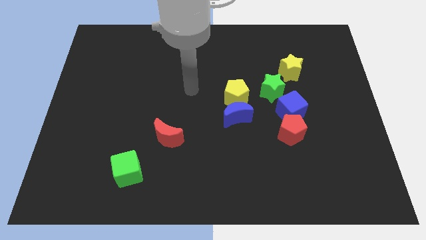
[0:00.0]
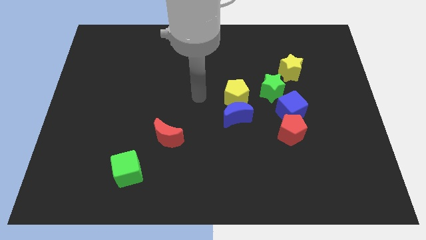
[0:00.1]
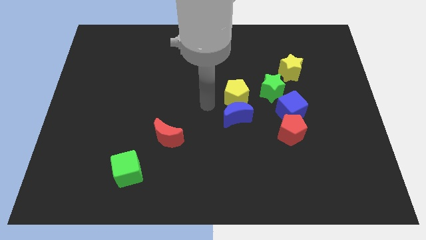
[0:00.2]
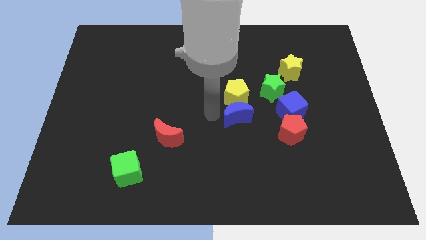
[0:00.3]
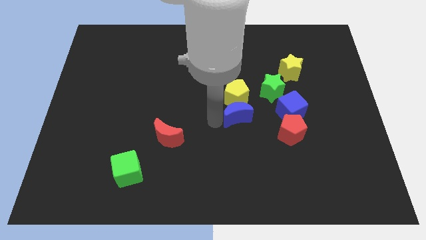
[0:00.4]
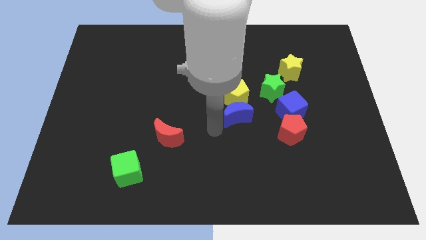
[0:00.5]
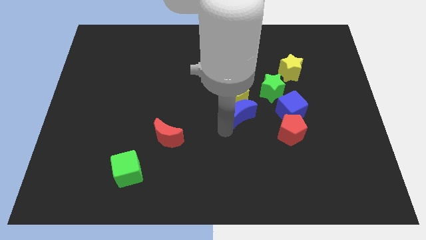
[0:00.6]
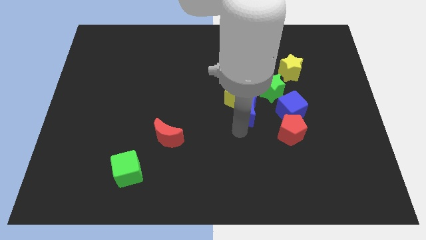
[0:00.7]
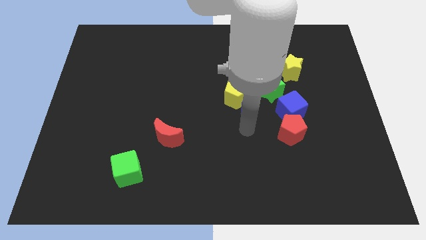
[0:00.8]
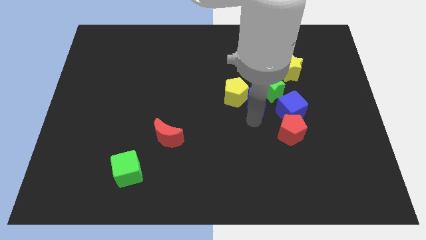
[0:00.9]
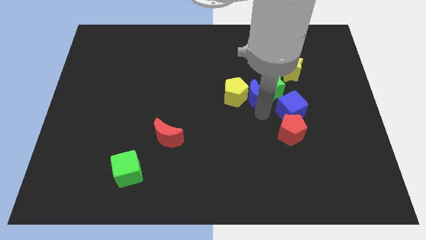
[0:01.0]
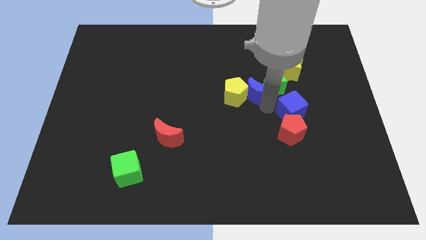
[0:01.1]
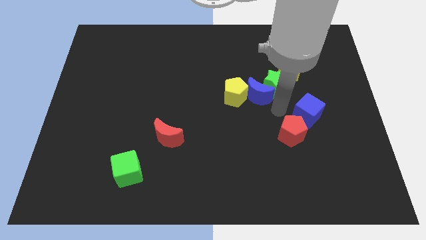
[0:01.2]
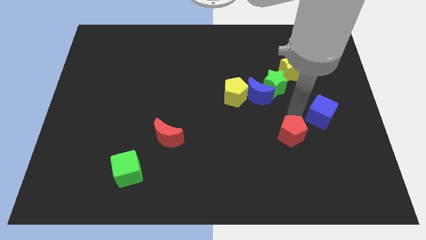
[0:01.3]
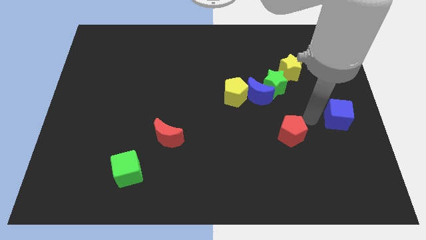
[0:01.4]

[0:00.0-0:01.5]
separate the red pentagon from the blue cube

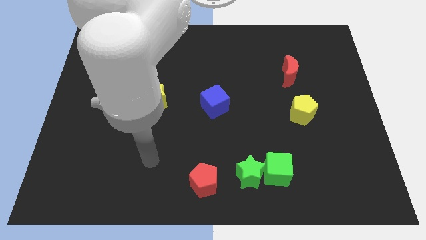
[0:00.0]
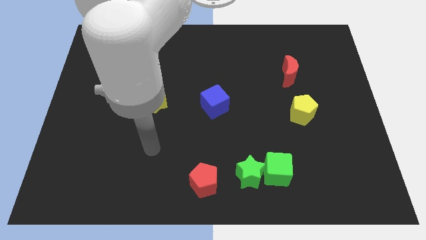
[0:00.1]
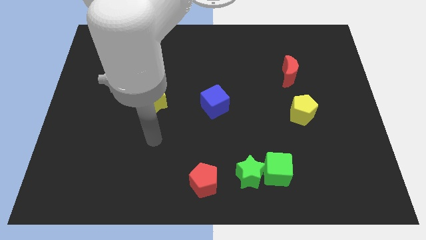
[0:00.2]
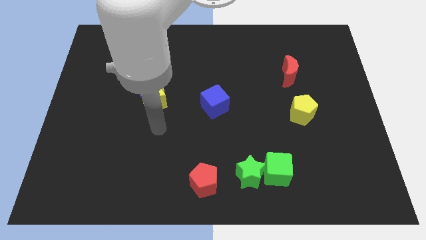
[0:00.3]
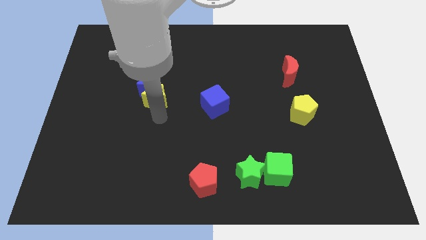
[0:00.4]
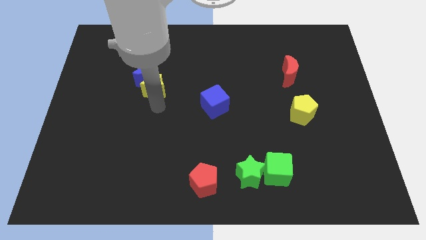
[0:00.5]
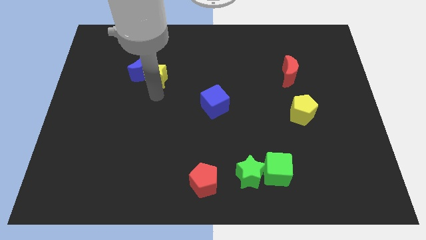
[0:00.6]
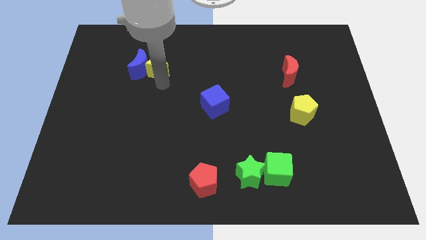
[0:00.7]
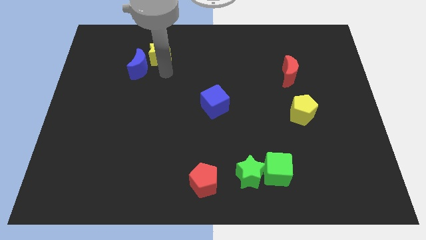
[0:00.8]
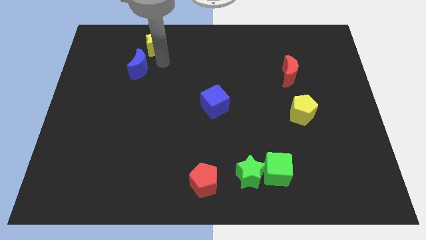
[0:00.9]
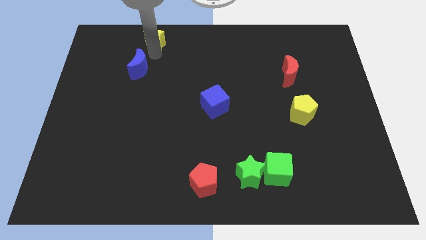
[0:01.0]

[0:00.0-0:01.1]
move the blue moon away from the yellow star

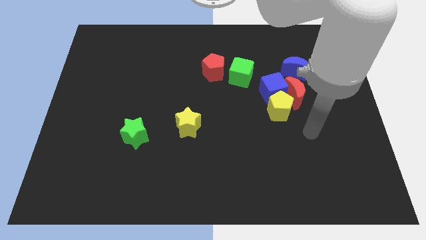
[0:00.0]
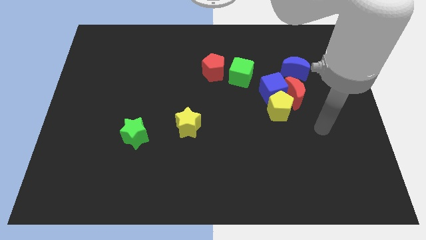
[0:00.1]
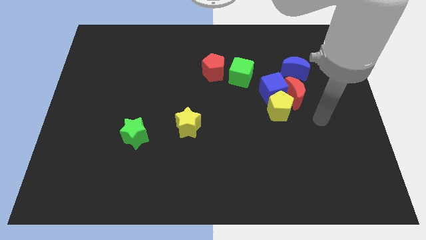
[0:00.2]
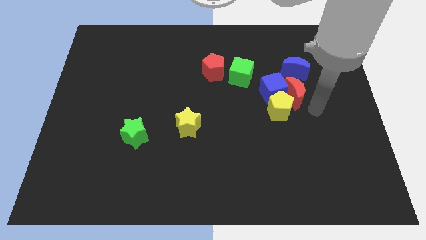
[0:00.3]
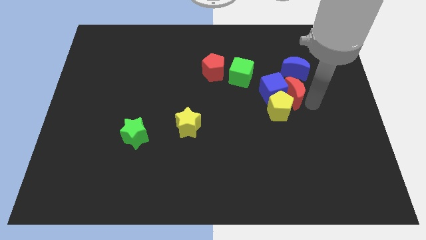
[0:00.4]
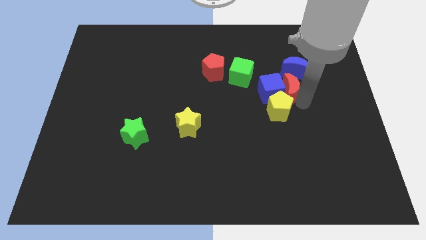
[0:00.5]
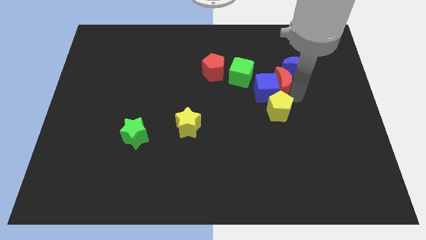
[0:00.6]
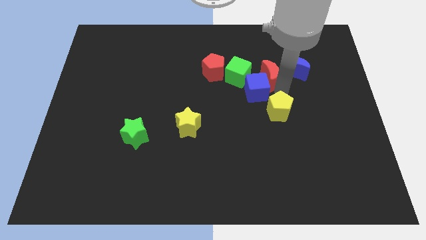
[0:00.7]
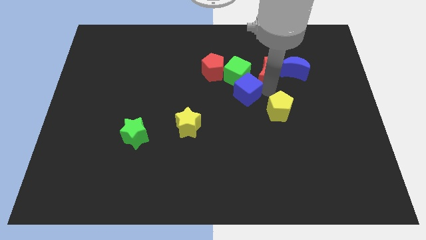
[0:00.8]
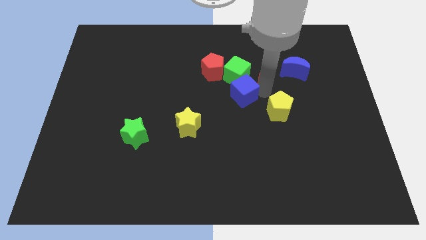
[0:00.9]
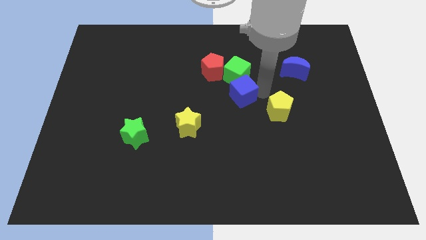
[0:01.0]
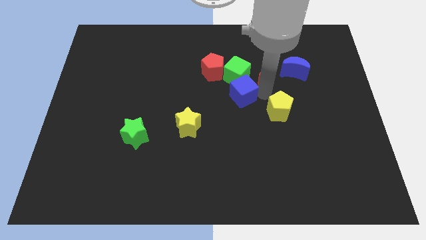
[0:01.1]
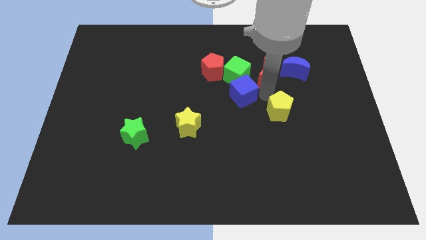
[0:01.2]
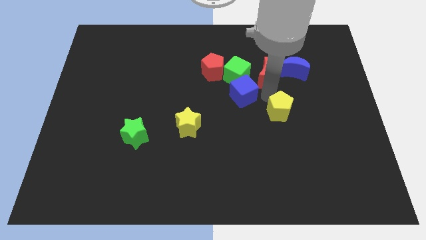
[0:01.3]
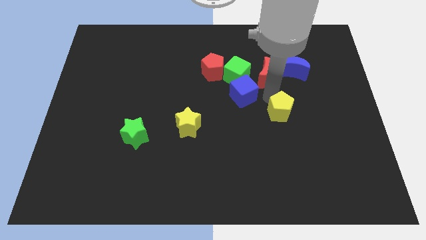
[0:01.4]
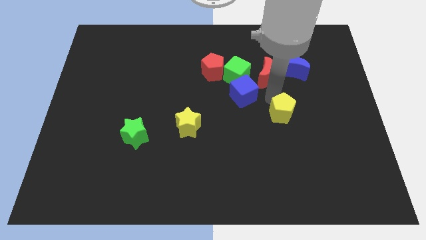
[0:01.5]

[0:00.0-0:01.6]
separate the yellow pentagon from the blue cube and red moon

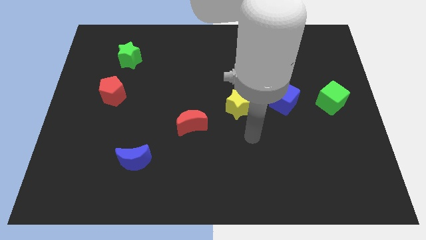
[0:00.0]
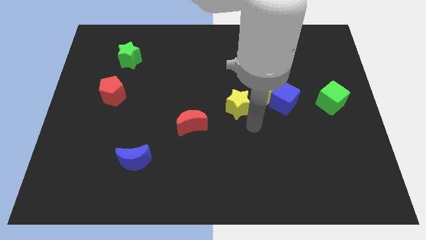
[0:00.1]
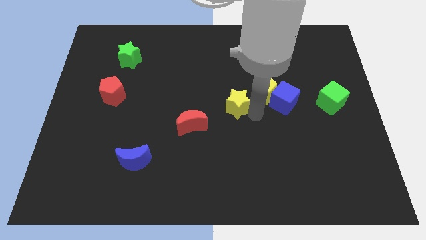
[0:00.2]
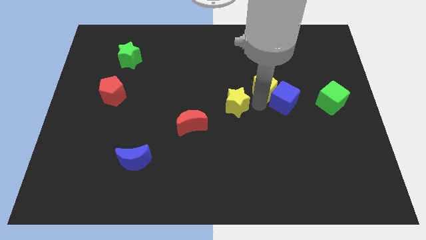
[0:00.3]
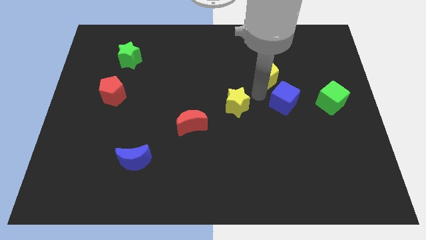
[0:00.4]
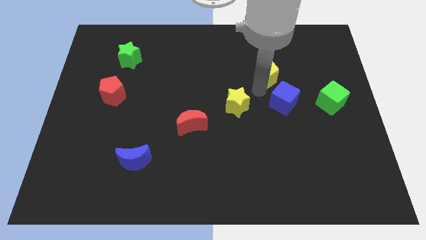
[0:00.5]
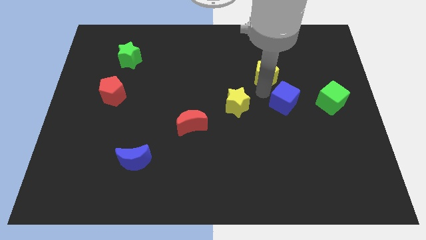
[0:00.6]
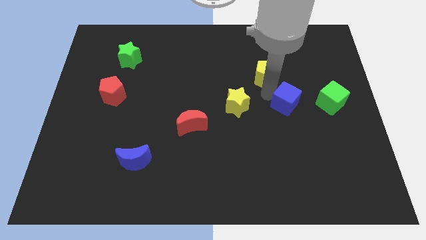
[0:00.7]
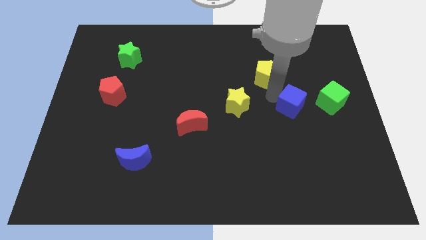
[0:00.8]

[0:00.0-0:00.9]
pull the blue cube apart from the yellow pentagon

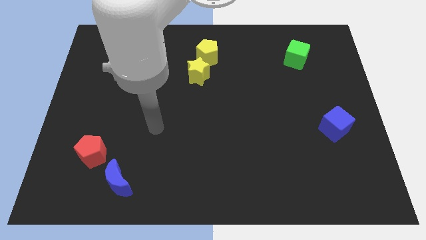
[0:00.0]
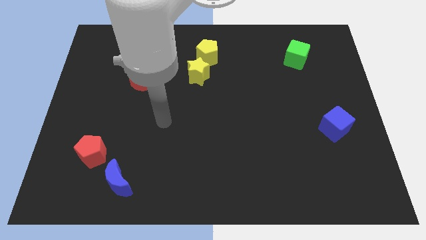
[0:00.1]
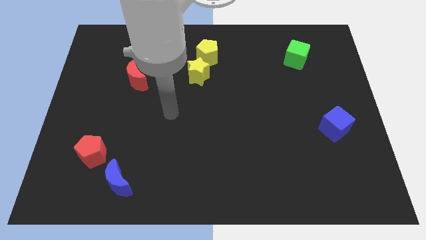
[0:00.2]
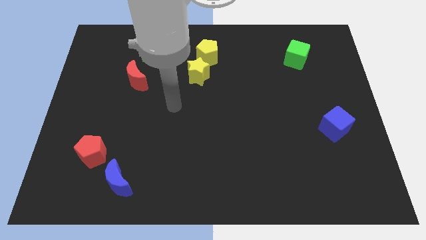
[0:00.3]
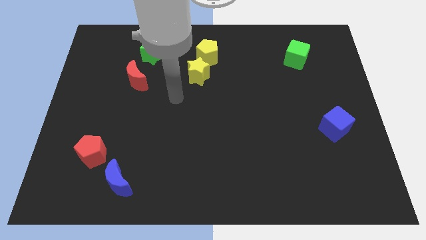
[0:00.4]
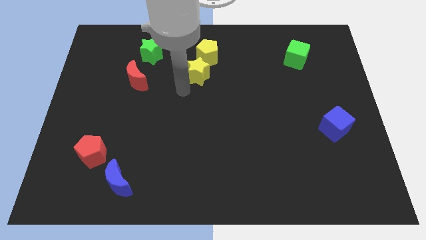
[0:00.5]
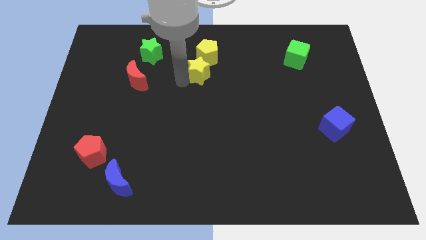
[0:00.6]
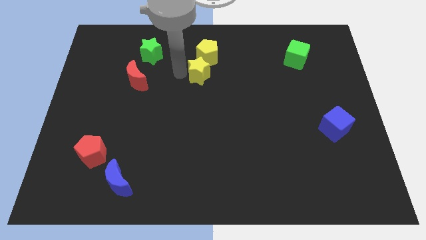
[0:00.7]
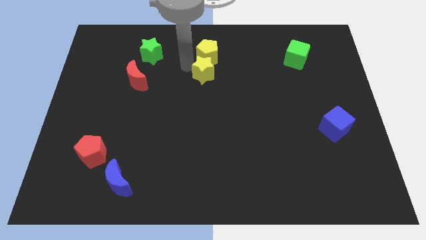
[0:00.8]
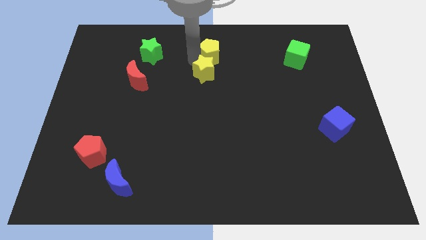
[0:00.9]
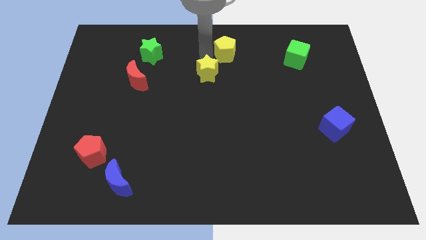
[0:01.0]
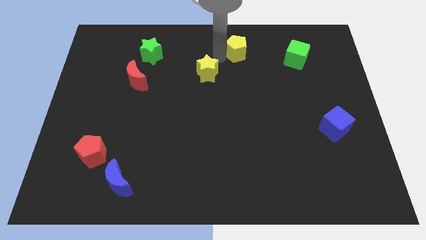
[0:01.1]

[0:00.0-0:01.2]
move the yellow star away from the yellow pentagon

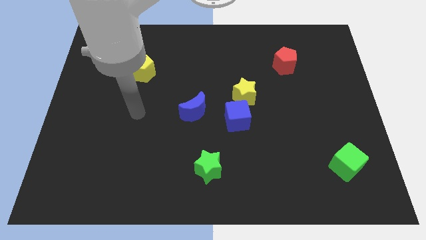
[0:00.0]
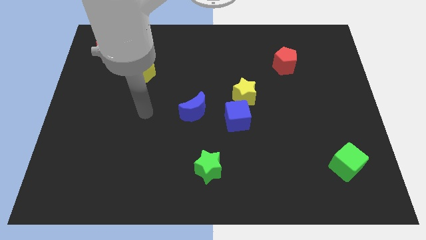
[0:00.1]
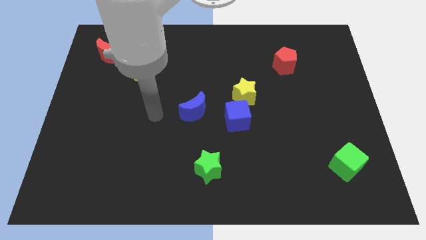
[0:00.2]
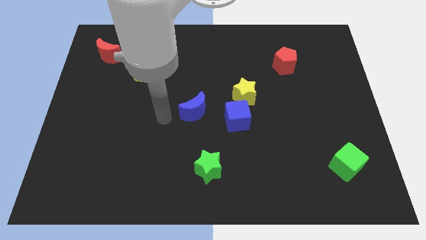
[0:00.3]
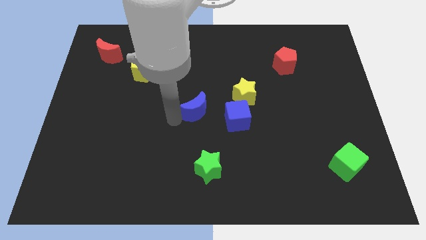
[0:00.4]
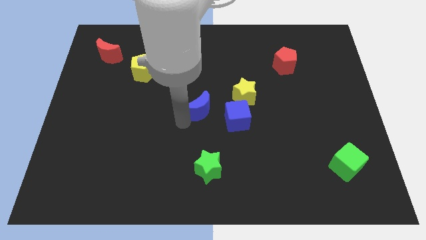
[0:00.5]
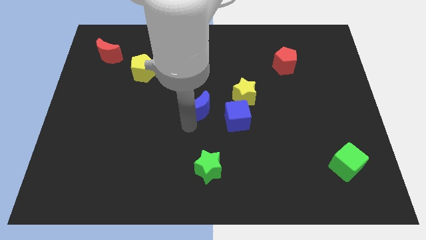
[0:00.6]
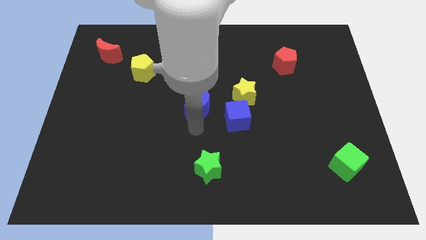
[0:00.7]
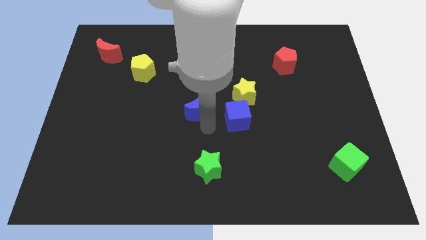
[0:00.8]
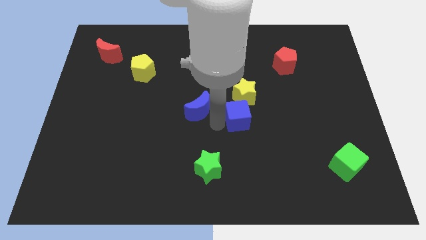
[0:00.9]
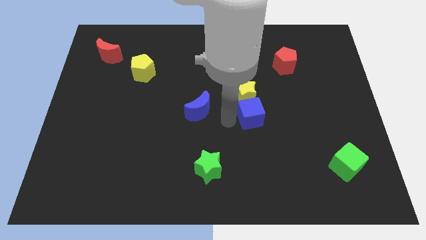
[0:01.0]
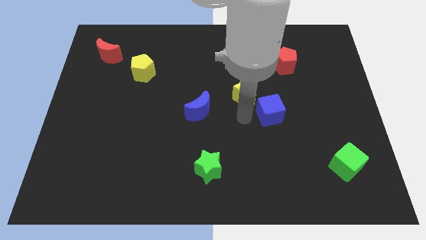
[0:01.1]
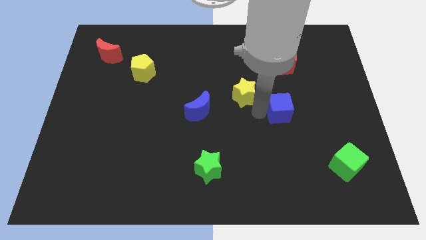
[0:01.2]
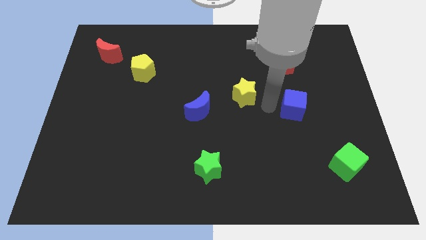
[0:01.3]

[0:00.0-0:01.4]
pull the yellow star apart from the blue cube

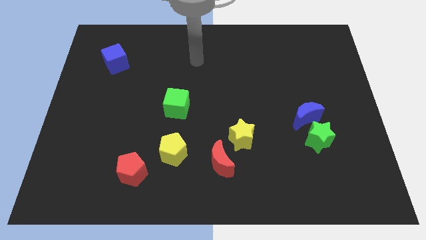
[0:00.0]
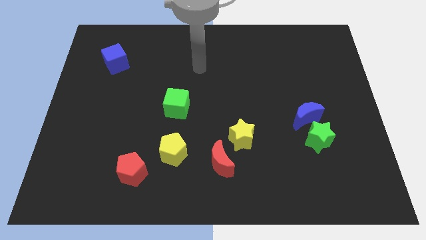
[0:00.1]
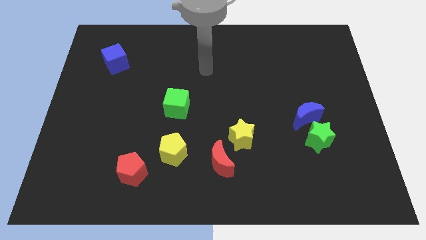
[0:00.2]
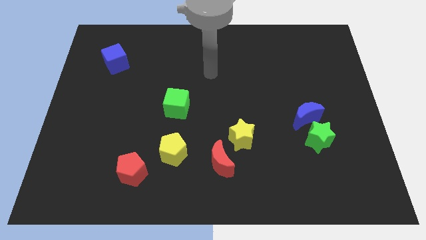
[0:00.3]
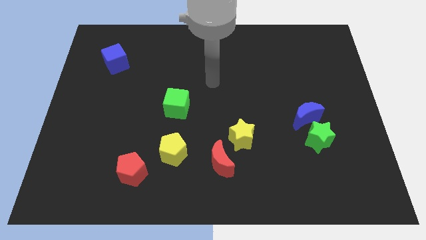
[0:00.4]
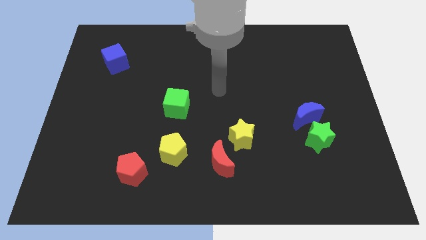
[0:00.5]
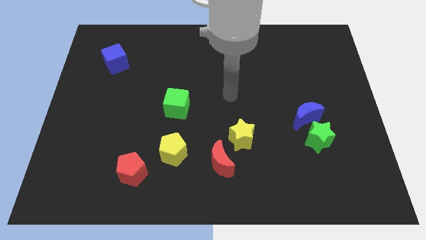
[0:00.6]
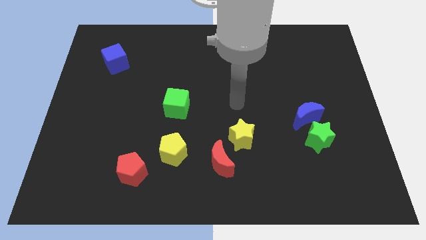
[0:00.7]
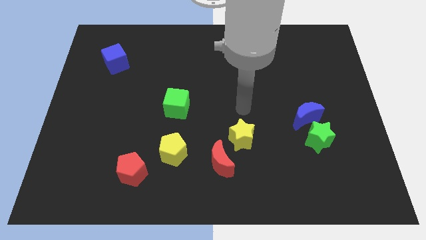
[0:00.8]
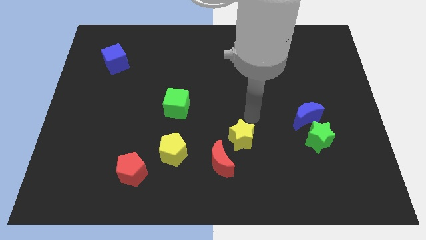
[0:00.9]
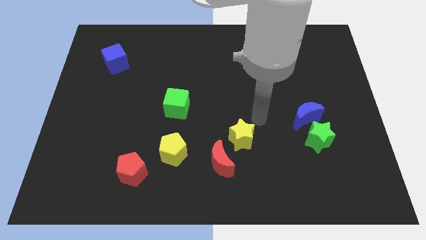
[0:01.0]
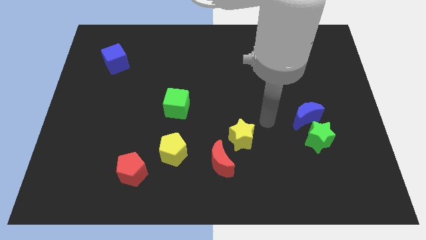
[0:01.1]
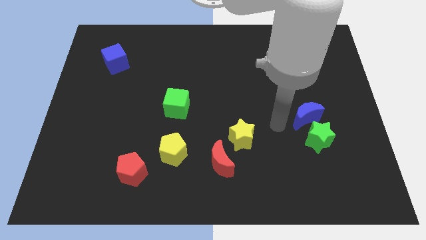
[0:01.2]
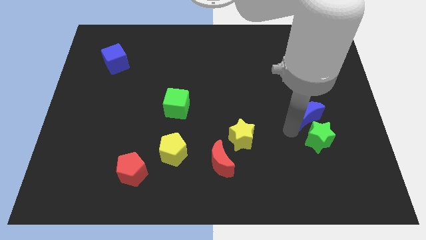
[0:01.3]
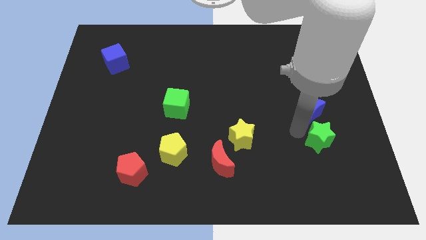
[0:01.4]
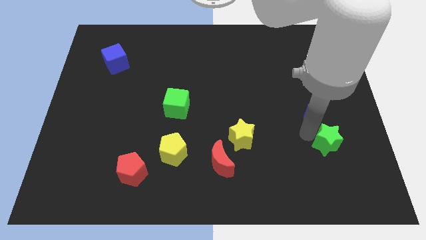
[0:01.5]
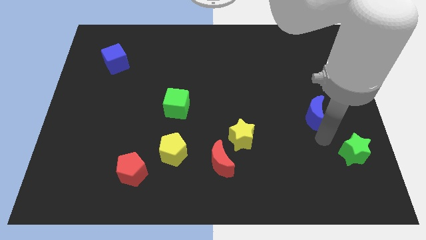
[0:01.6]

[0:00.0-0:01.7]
separate the blue moon from the green star
